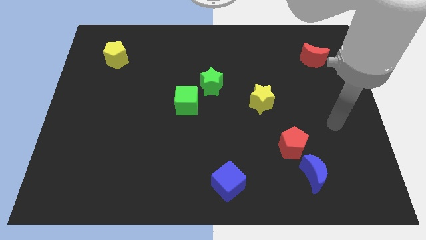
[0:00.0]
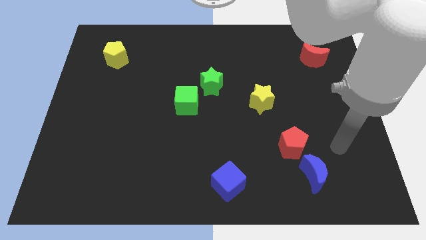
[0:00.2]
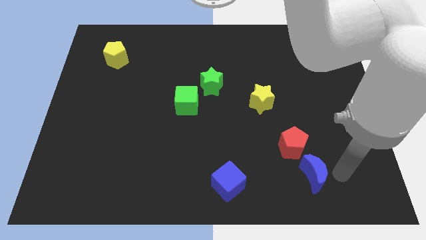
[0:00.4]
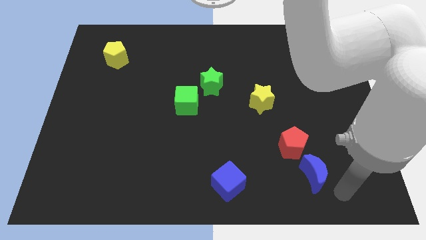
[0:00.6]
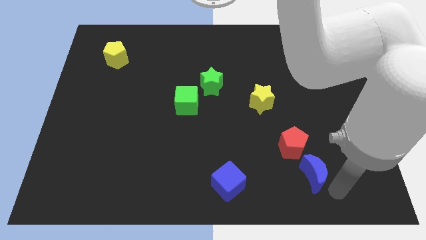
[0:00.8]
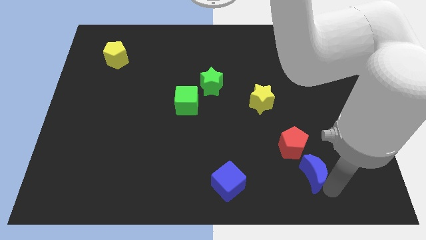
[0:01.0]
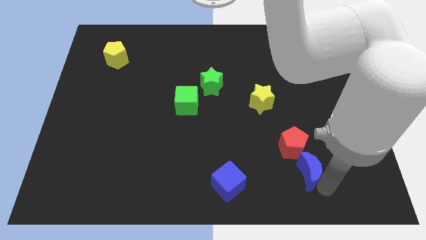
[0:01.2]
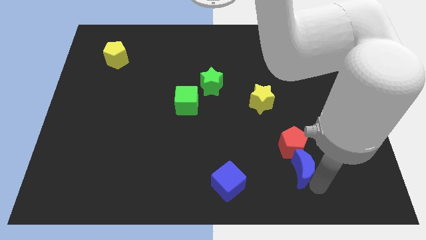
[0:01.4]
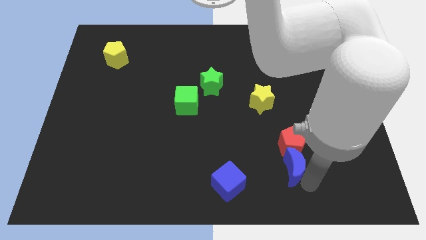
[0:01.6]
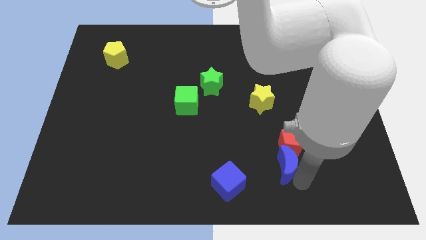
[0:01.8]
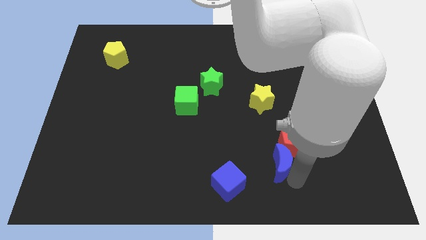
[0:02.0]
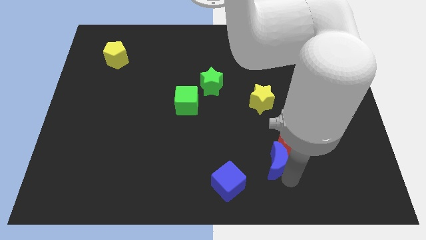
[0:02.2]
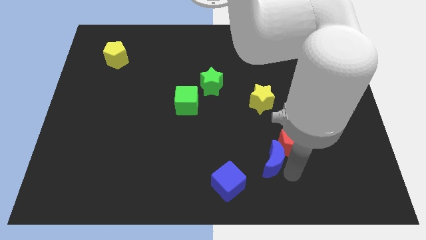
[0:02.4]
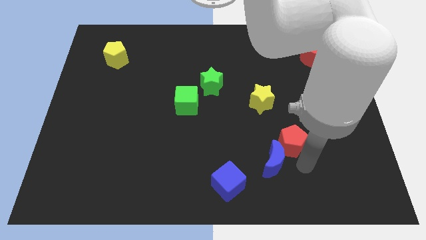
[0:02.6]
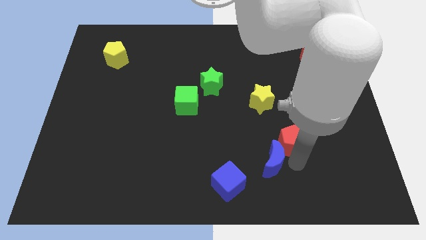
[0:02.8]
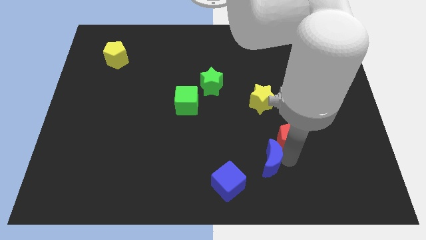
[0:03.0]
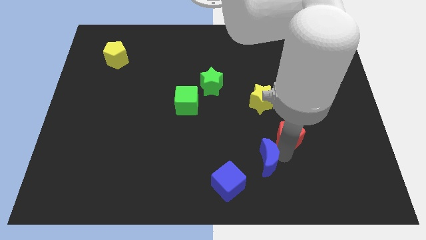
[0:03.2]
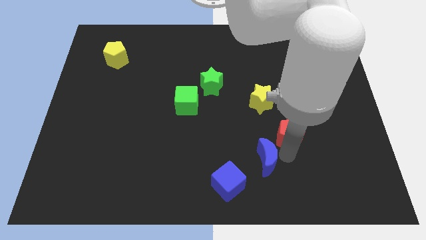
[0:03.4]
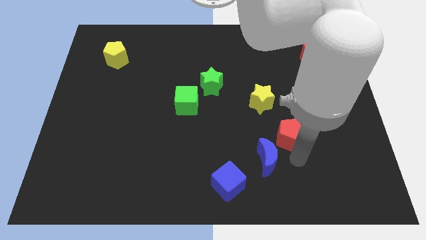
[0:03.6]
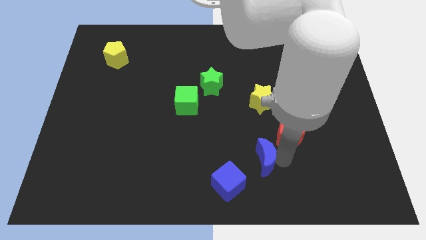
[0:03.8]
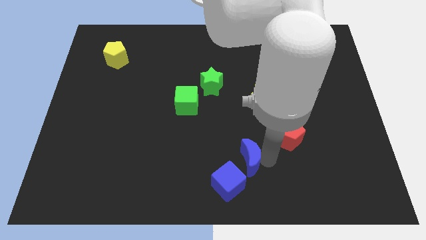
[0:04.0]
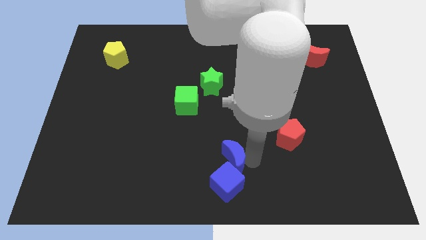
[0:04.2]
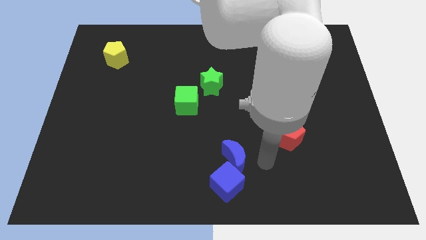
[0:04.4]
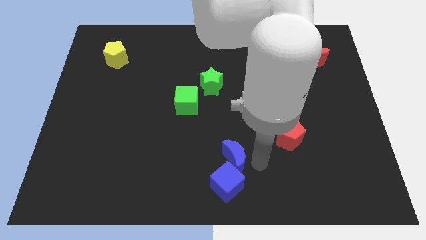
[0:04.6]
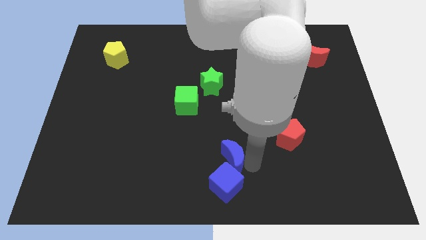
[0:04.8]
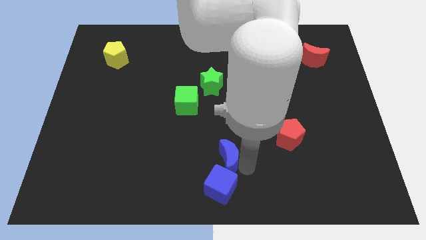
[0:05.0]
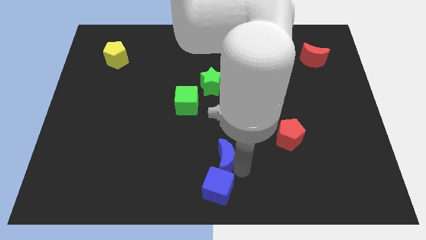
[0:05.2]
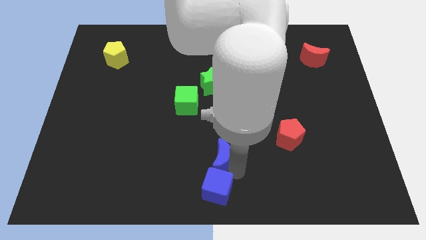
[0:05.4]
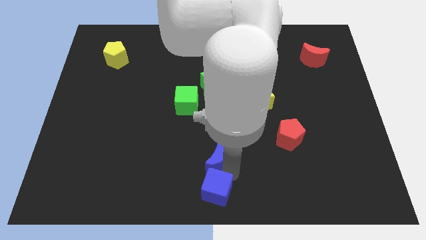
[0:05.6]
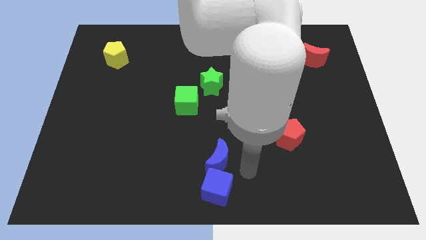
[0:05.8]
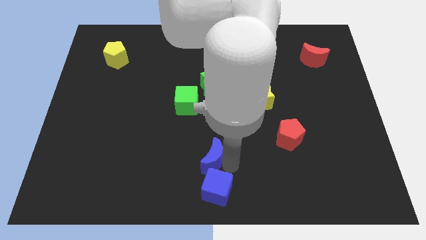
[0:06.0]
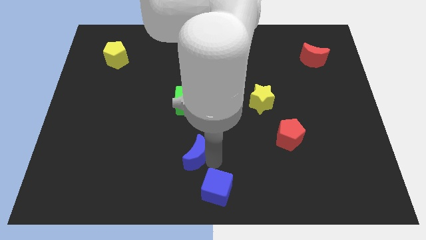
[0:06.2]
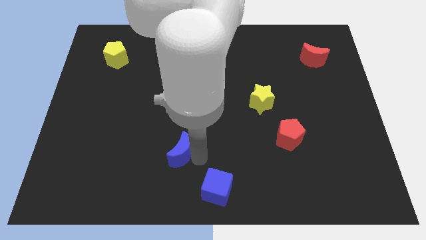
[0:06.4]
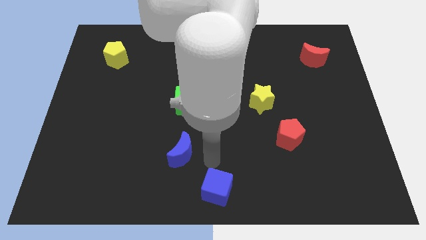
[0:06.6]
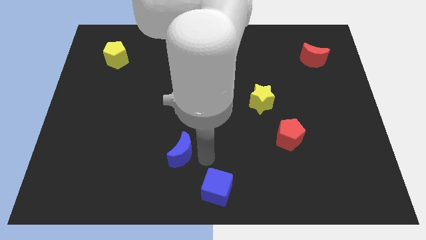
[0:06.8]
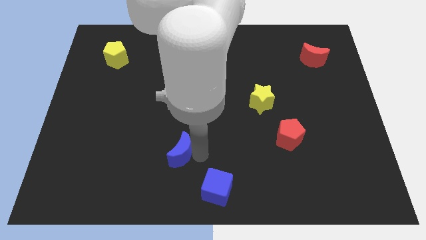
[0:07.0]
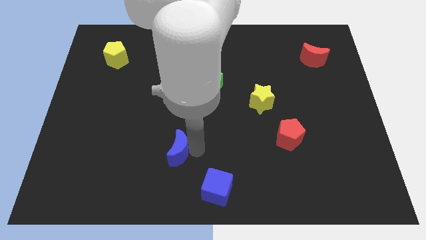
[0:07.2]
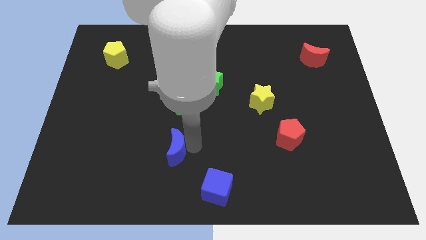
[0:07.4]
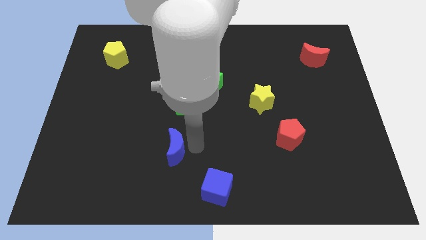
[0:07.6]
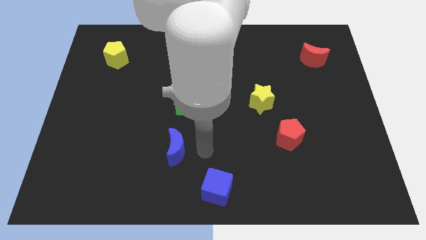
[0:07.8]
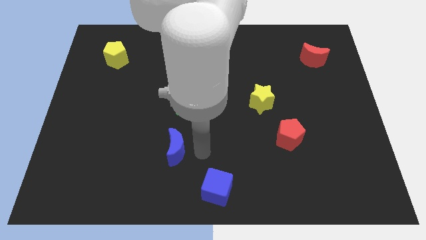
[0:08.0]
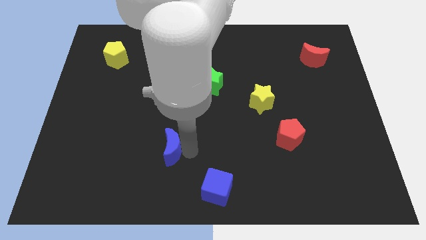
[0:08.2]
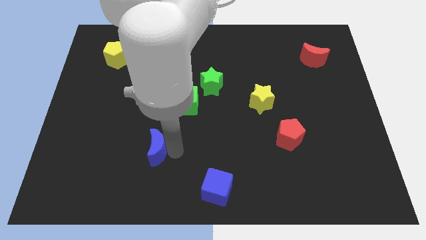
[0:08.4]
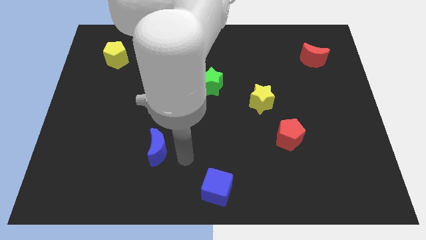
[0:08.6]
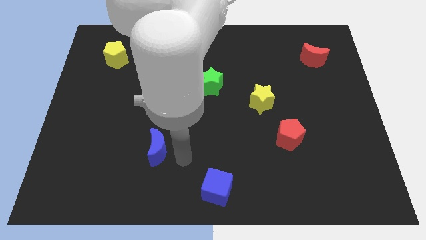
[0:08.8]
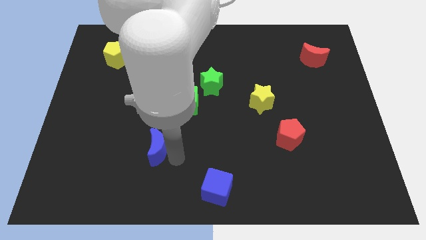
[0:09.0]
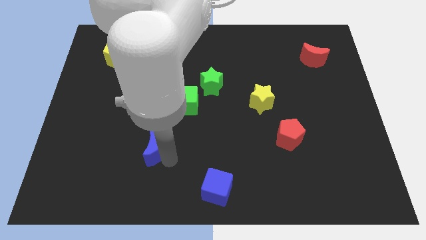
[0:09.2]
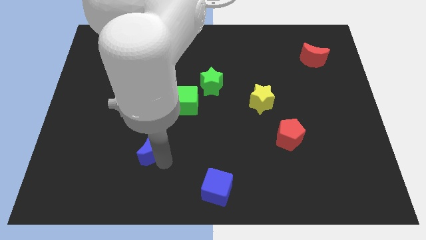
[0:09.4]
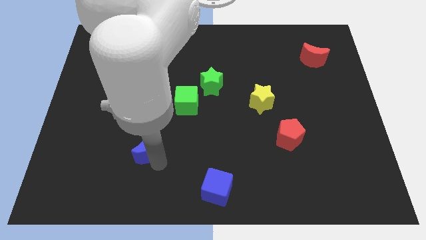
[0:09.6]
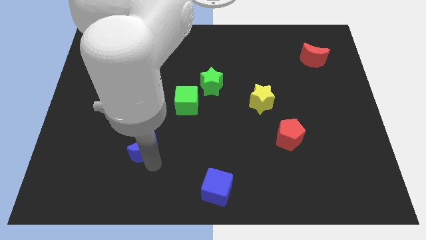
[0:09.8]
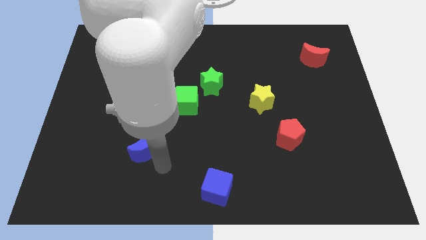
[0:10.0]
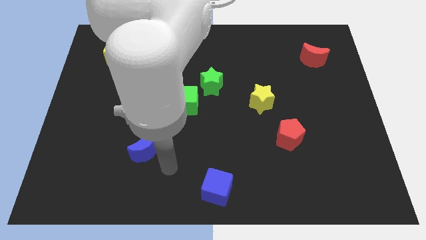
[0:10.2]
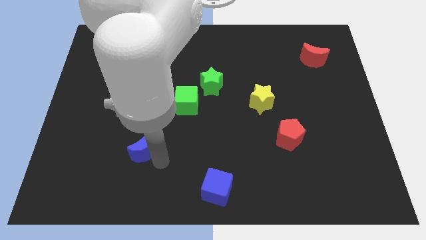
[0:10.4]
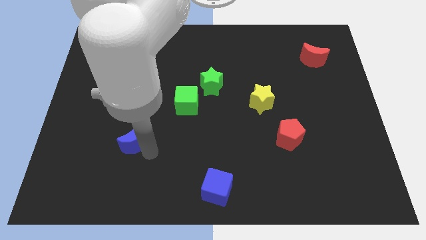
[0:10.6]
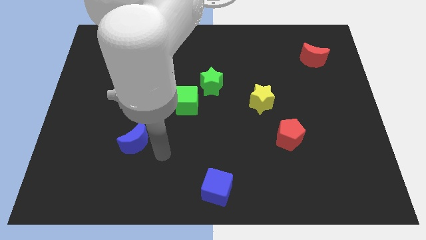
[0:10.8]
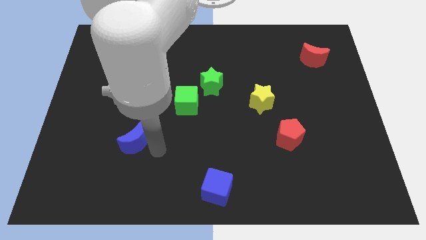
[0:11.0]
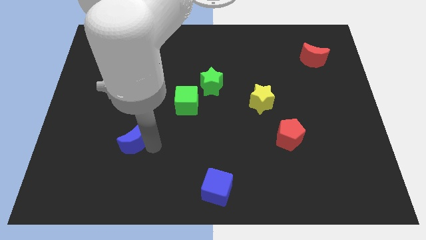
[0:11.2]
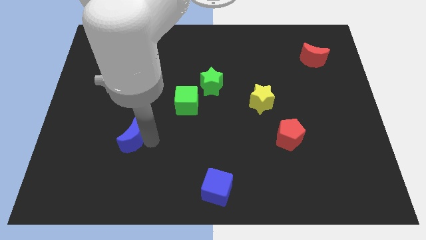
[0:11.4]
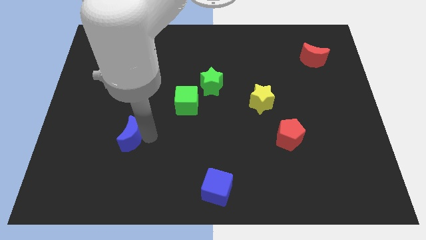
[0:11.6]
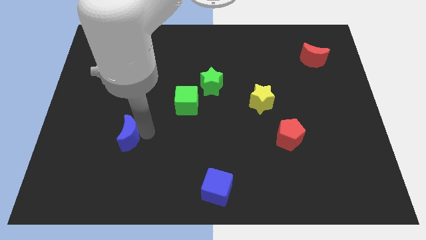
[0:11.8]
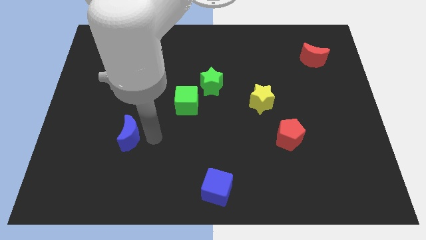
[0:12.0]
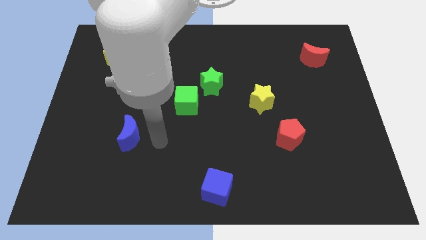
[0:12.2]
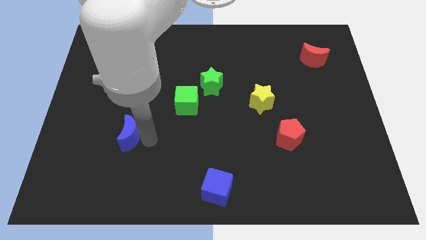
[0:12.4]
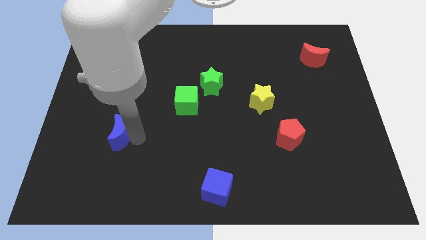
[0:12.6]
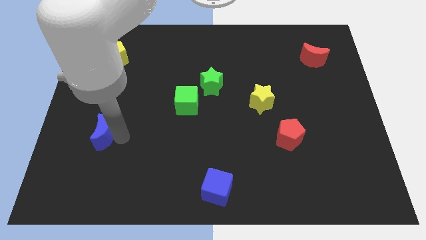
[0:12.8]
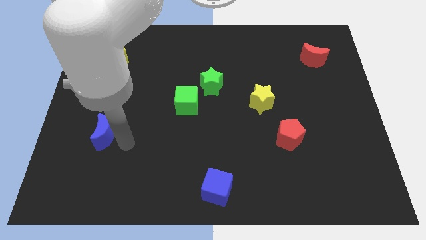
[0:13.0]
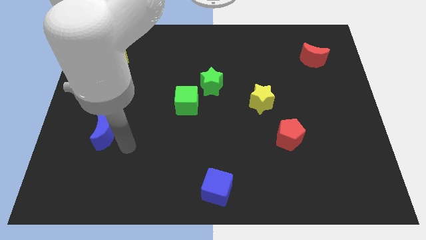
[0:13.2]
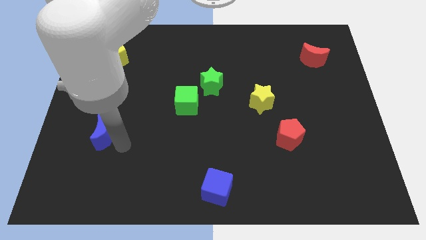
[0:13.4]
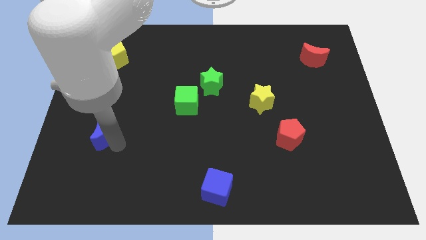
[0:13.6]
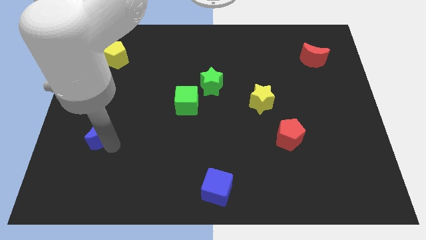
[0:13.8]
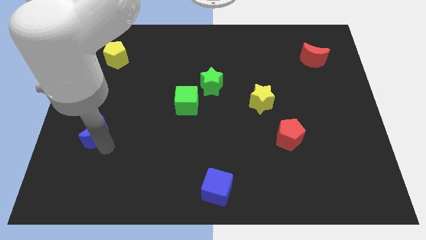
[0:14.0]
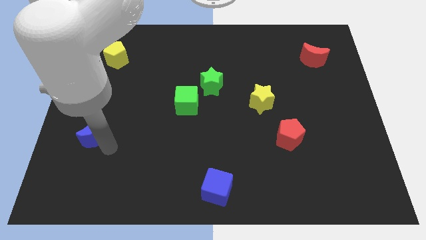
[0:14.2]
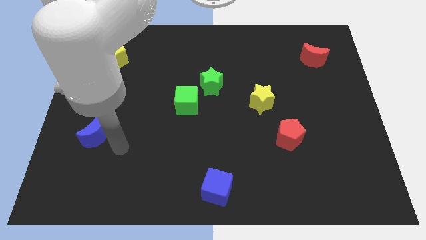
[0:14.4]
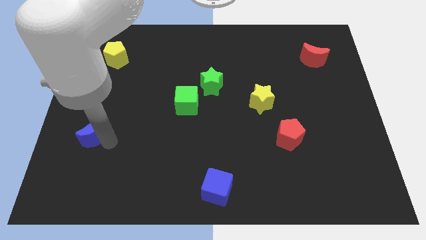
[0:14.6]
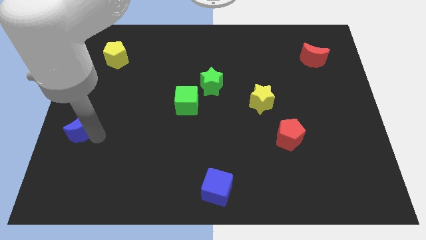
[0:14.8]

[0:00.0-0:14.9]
move the blue moon to the center left
